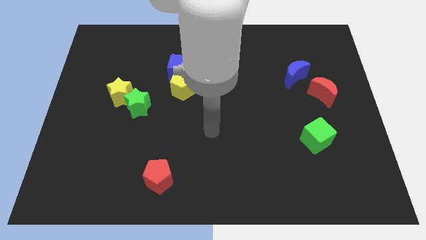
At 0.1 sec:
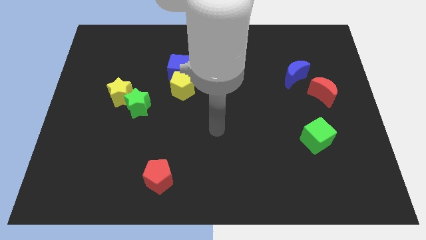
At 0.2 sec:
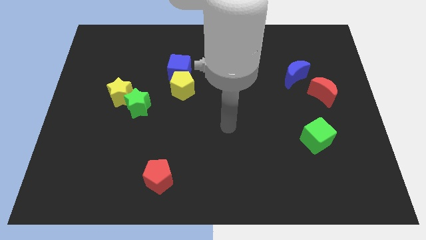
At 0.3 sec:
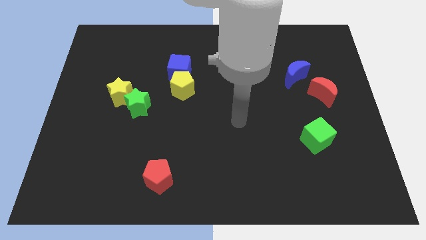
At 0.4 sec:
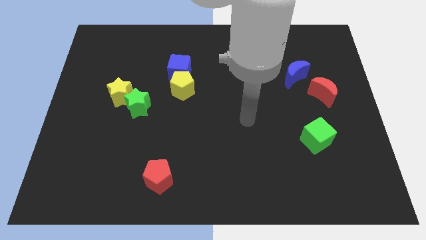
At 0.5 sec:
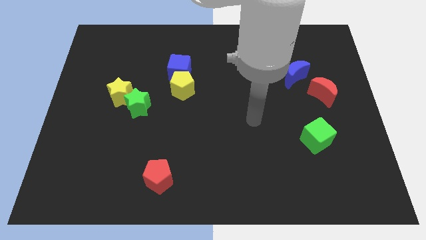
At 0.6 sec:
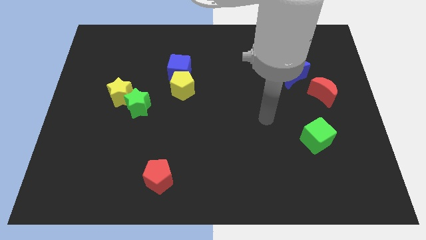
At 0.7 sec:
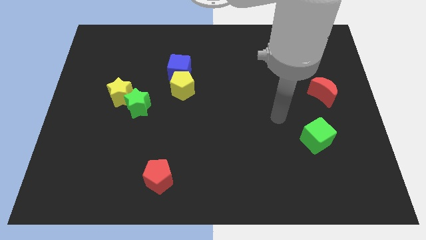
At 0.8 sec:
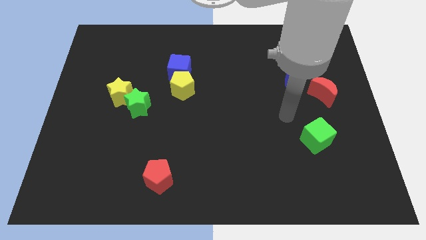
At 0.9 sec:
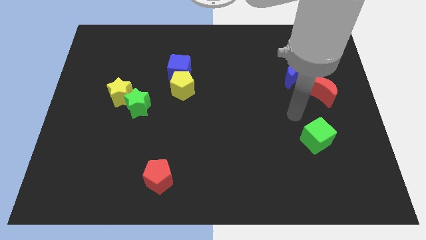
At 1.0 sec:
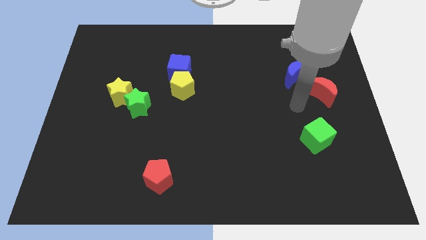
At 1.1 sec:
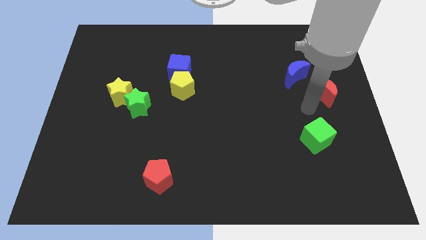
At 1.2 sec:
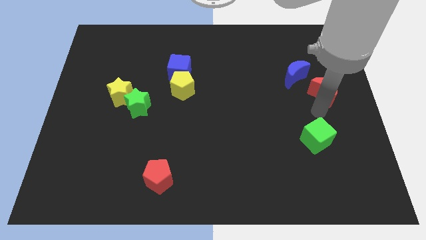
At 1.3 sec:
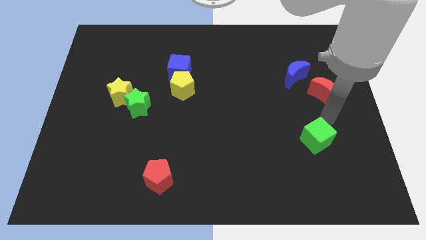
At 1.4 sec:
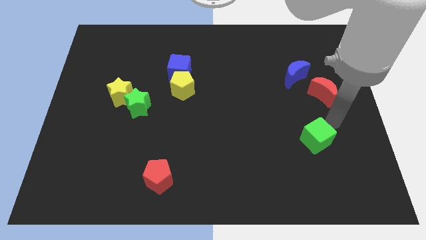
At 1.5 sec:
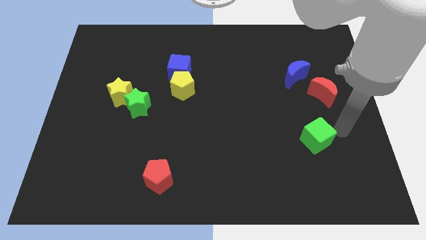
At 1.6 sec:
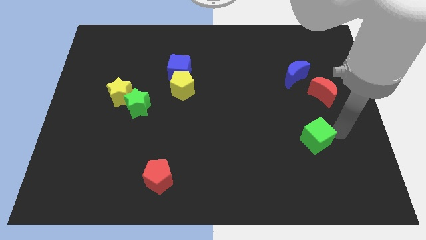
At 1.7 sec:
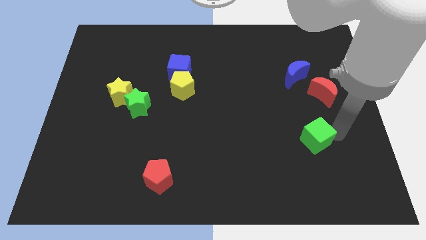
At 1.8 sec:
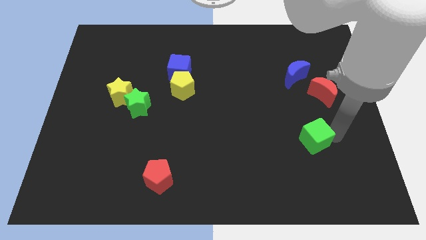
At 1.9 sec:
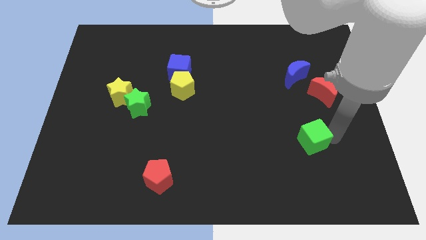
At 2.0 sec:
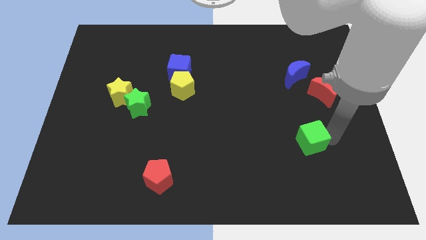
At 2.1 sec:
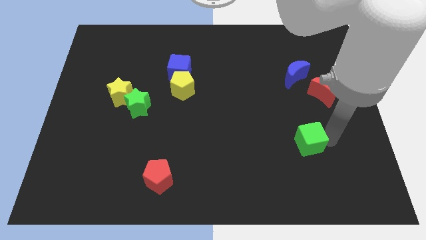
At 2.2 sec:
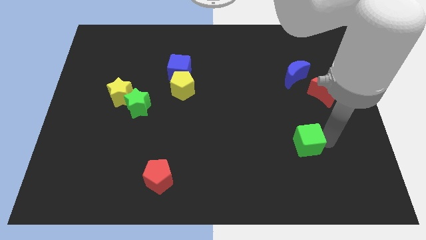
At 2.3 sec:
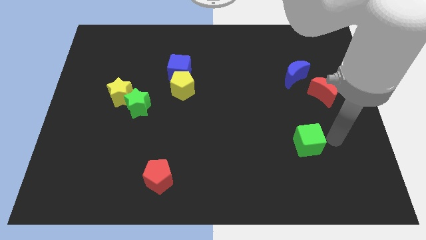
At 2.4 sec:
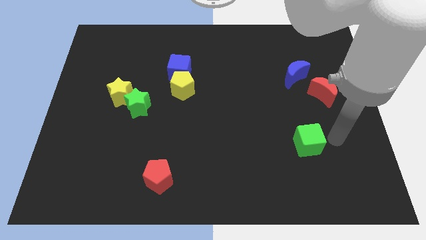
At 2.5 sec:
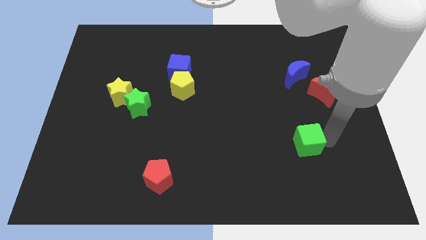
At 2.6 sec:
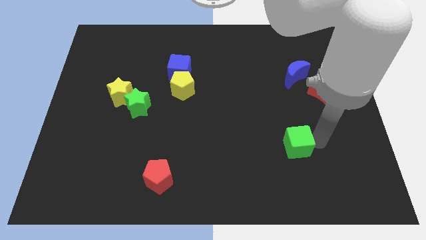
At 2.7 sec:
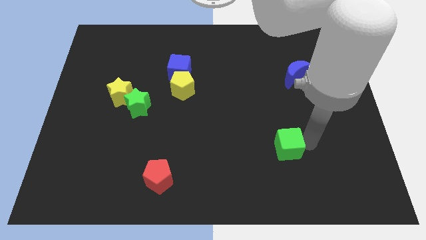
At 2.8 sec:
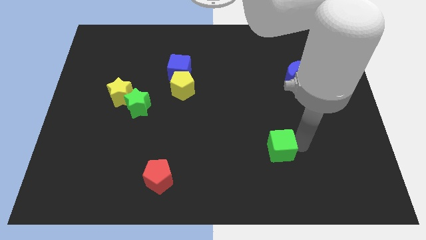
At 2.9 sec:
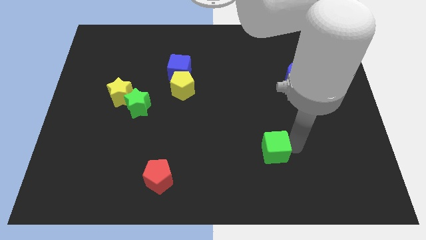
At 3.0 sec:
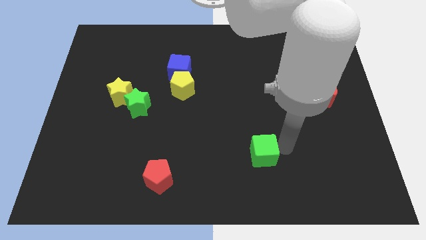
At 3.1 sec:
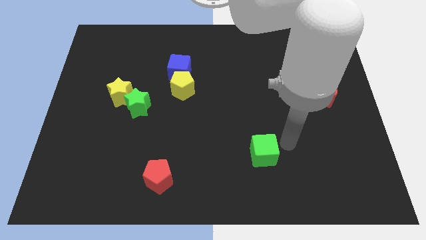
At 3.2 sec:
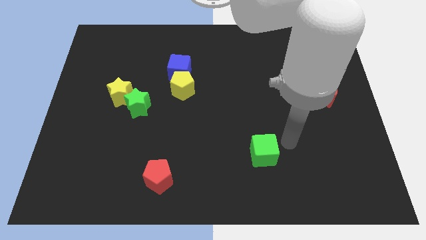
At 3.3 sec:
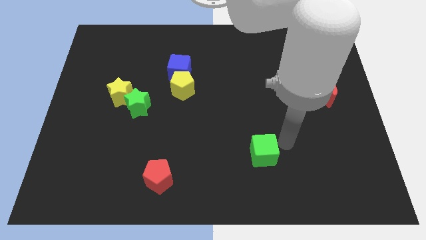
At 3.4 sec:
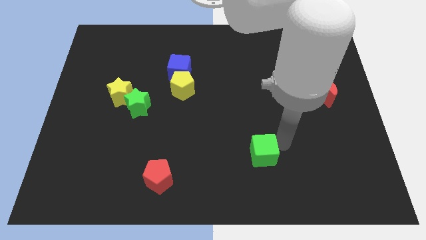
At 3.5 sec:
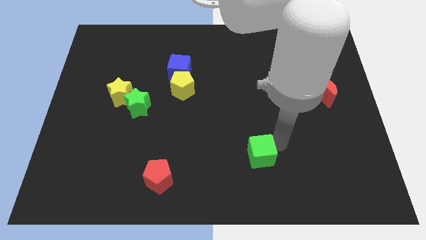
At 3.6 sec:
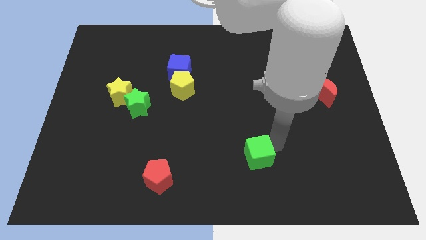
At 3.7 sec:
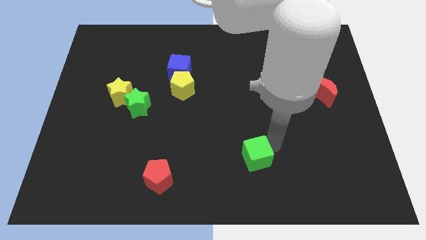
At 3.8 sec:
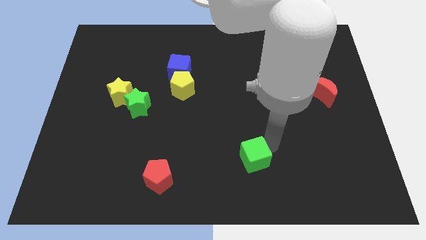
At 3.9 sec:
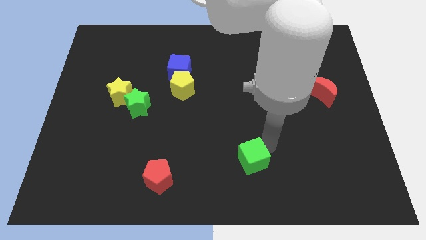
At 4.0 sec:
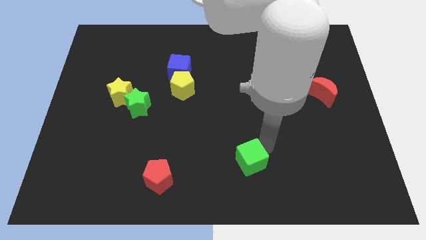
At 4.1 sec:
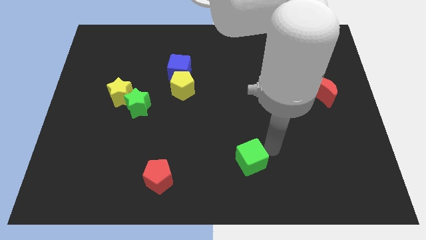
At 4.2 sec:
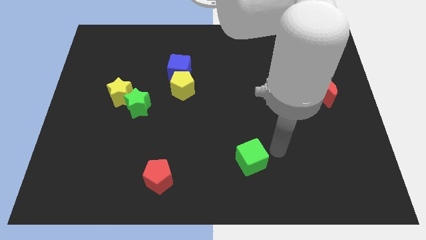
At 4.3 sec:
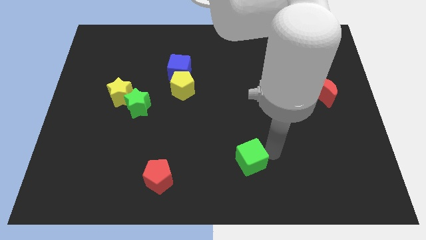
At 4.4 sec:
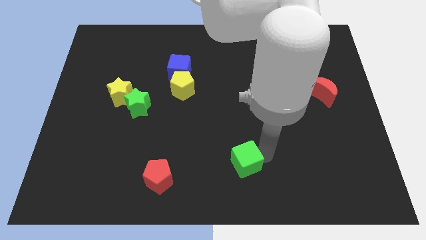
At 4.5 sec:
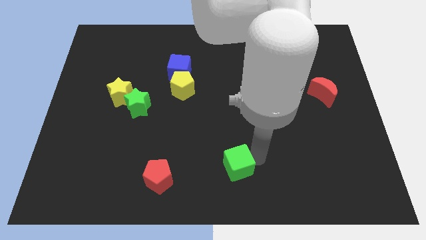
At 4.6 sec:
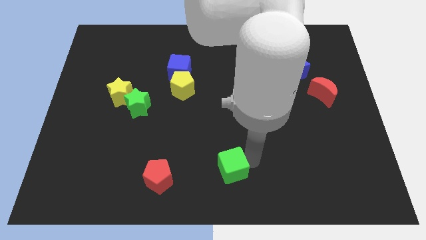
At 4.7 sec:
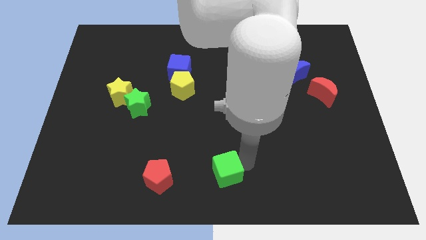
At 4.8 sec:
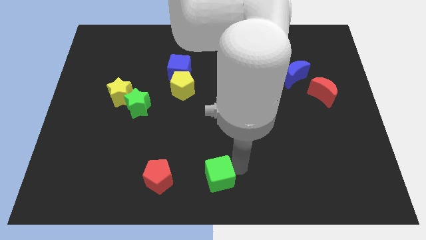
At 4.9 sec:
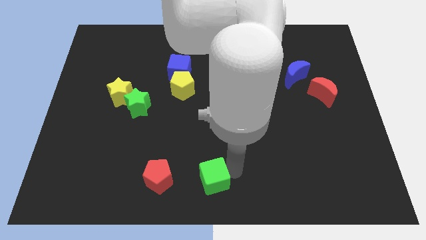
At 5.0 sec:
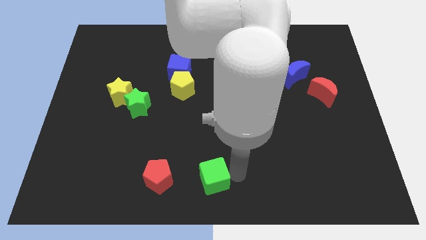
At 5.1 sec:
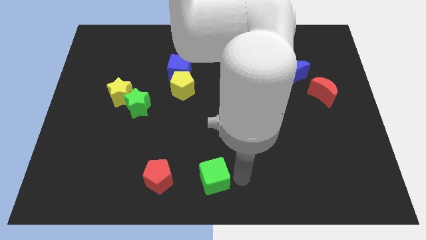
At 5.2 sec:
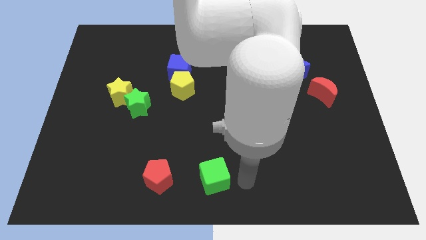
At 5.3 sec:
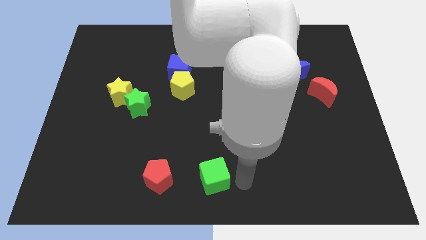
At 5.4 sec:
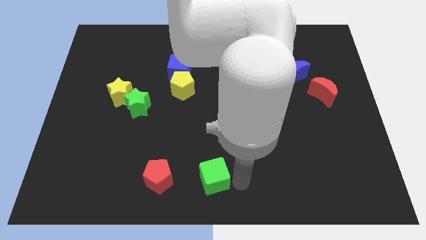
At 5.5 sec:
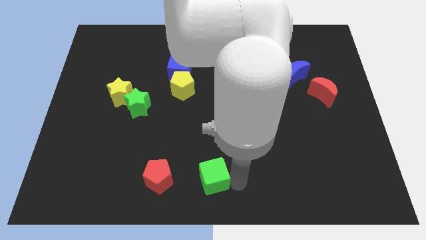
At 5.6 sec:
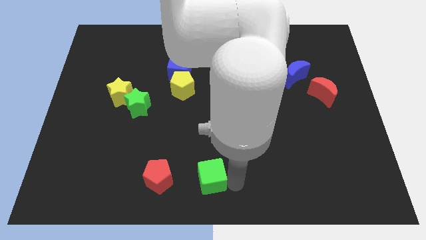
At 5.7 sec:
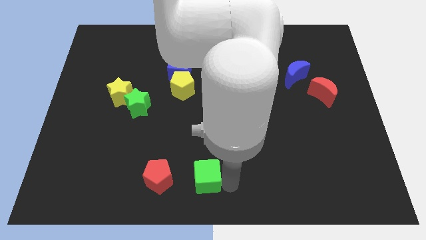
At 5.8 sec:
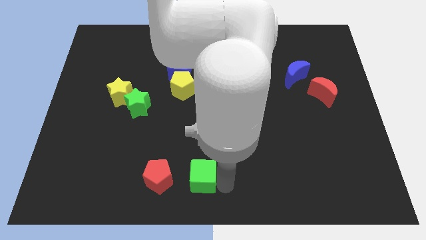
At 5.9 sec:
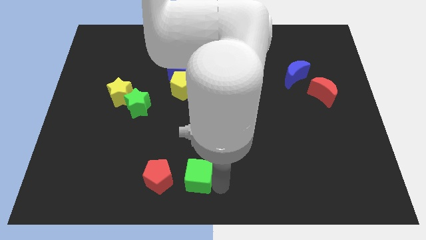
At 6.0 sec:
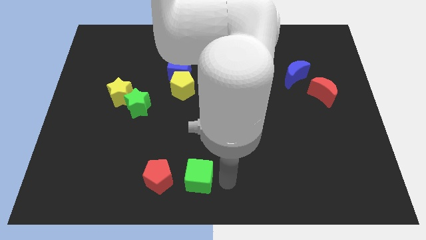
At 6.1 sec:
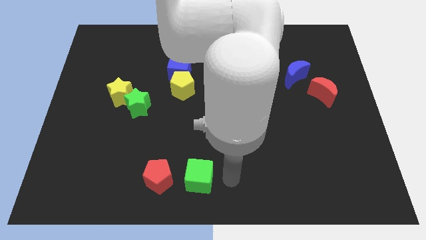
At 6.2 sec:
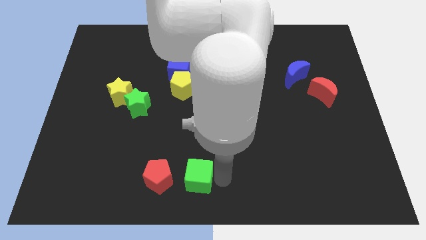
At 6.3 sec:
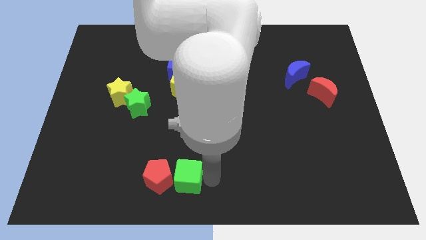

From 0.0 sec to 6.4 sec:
push the green cube close to the red pentagon
